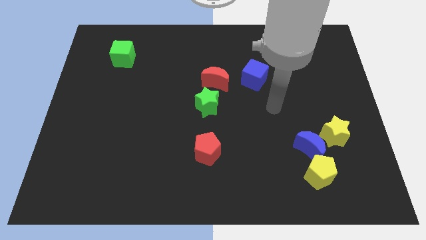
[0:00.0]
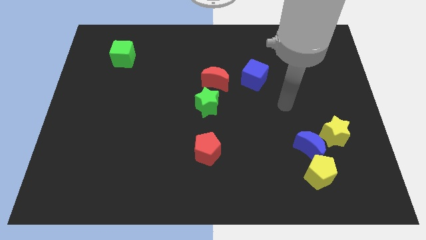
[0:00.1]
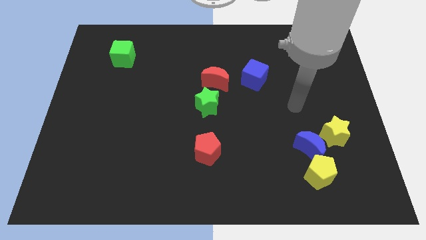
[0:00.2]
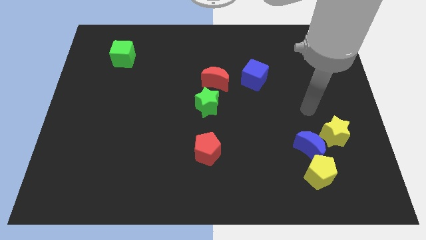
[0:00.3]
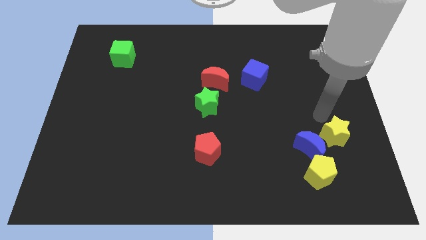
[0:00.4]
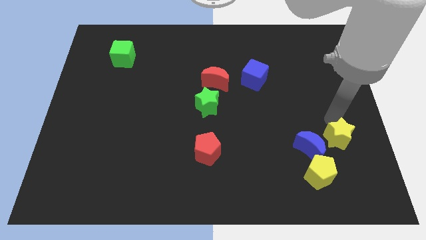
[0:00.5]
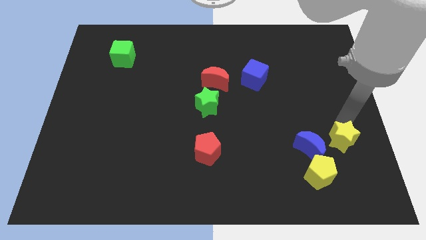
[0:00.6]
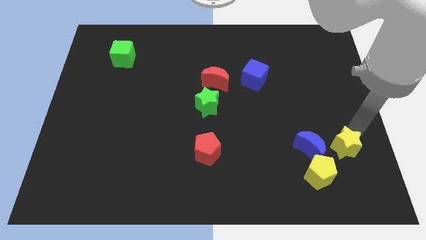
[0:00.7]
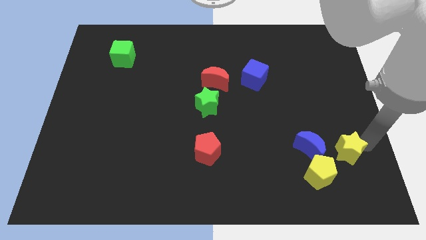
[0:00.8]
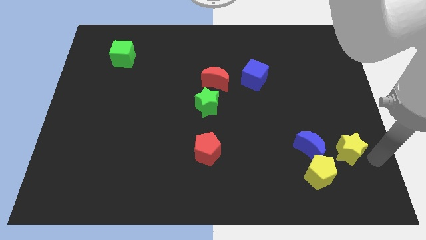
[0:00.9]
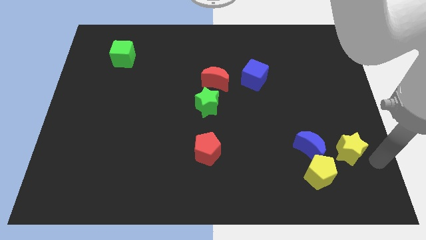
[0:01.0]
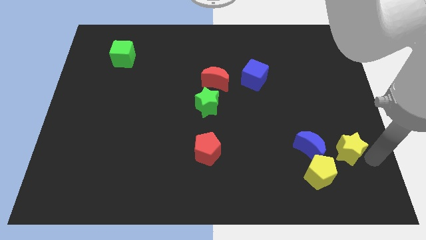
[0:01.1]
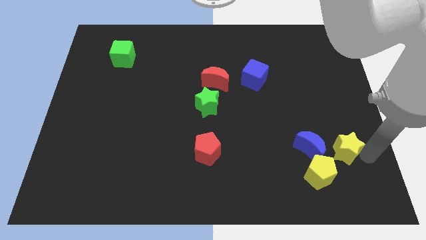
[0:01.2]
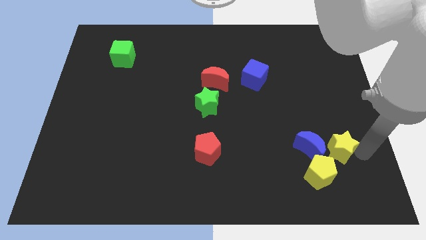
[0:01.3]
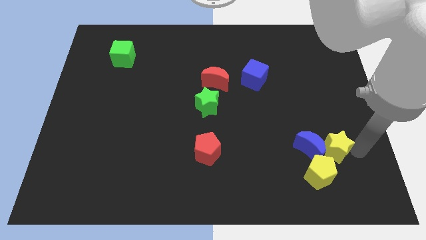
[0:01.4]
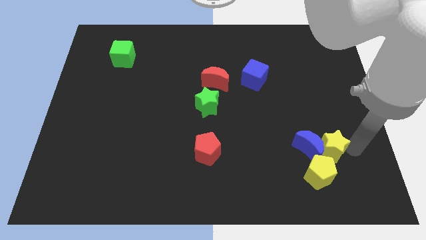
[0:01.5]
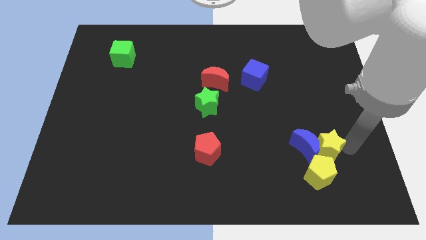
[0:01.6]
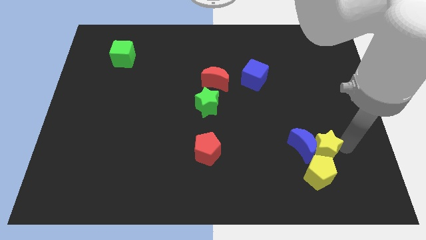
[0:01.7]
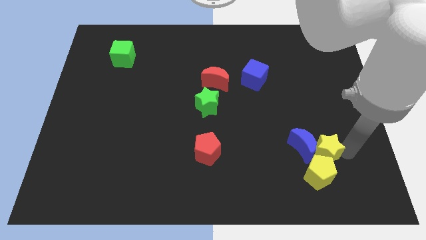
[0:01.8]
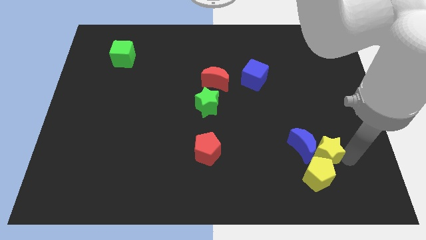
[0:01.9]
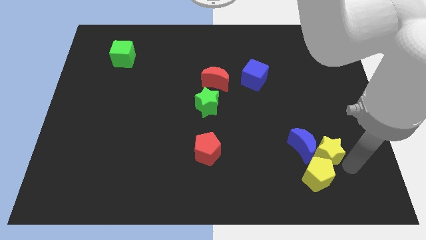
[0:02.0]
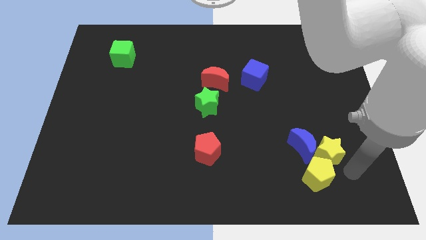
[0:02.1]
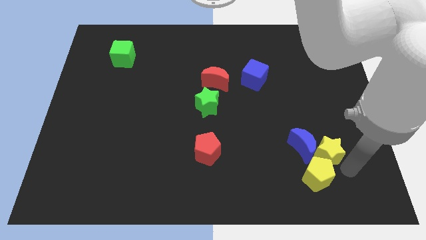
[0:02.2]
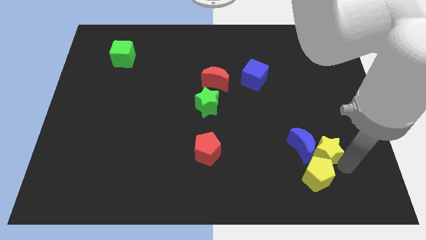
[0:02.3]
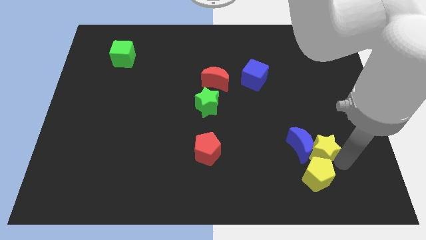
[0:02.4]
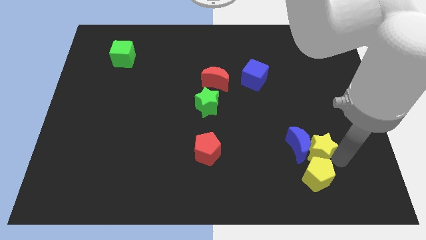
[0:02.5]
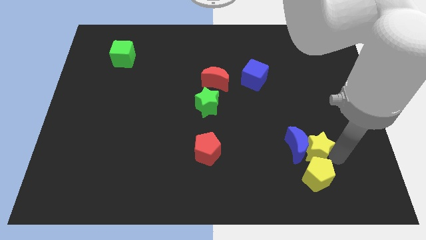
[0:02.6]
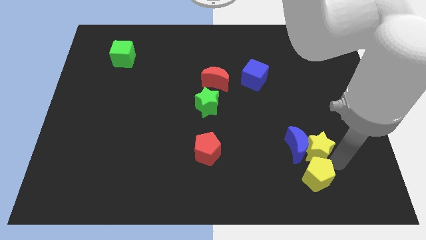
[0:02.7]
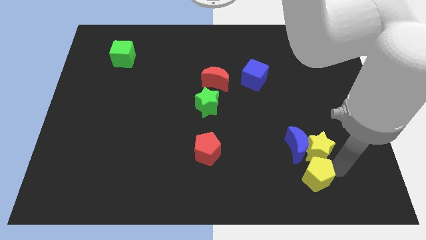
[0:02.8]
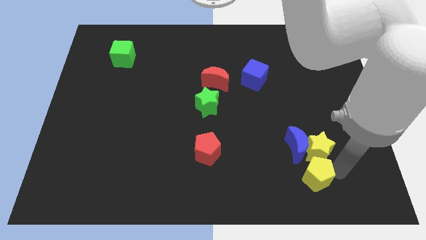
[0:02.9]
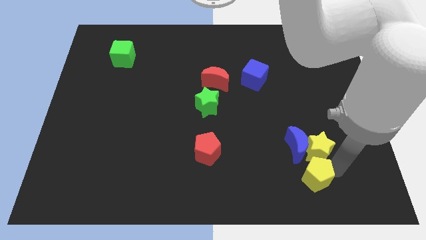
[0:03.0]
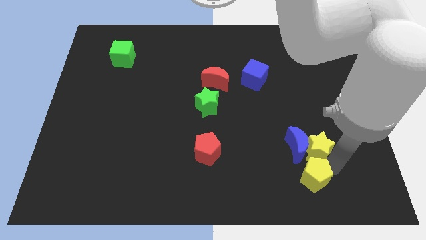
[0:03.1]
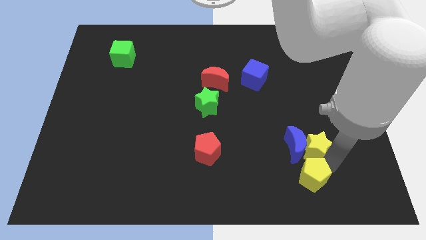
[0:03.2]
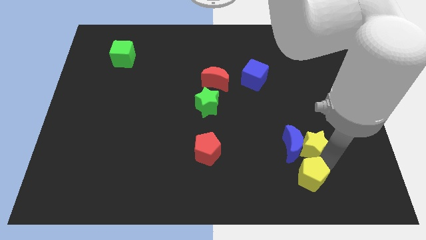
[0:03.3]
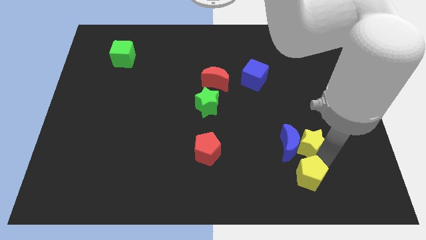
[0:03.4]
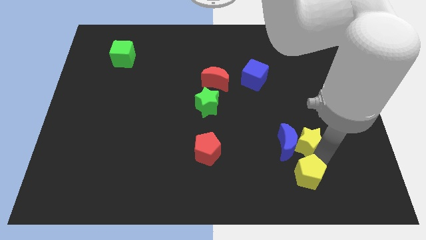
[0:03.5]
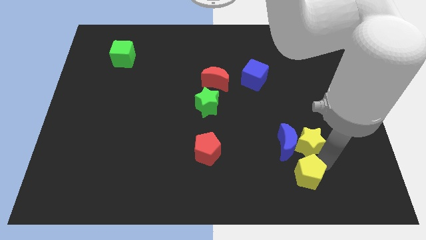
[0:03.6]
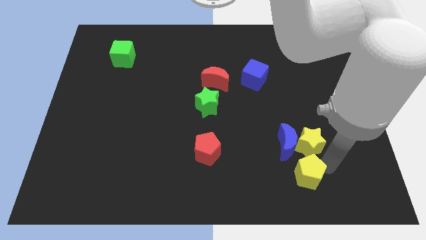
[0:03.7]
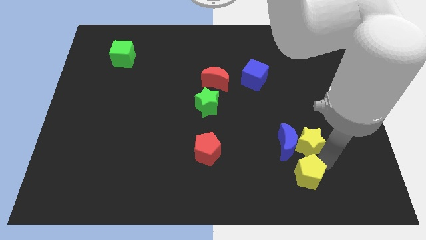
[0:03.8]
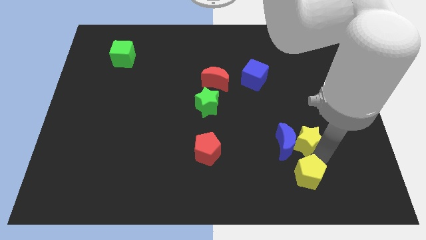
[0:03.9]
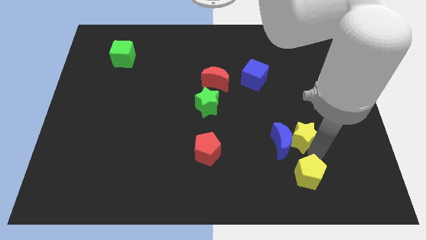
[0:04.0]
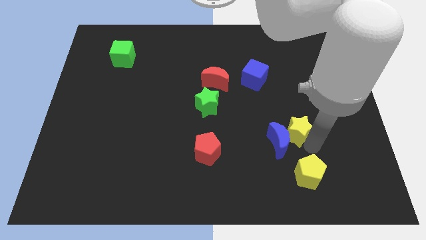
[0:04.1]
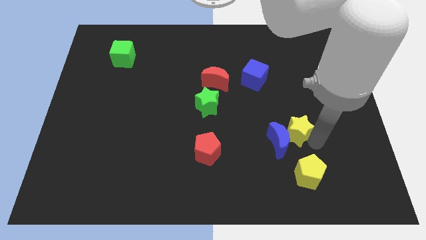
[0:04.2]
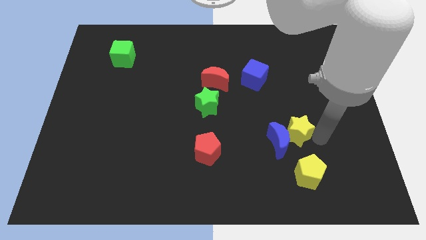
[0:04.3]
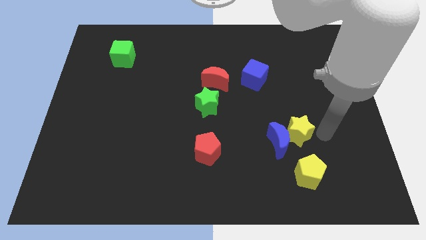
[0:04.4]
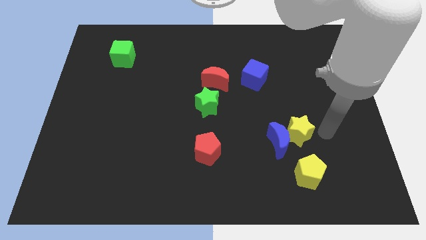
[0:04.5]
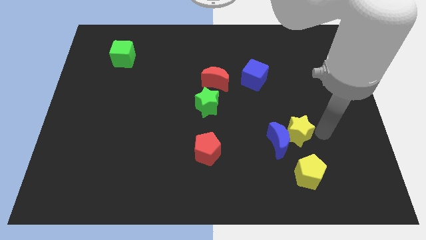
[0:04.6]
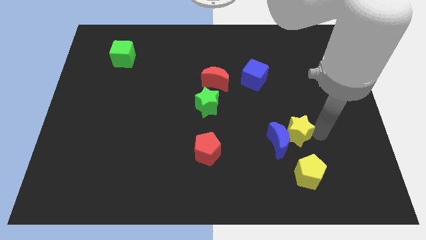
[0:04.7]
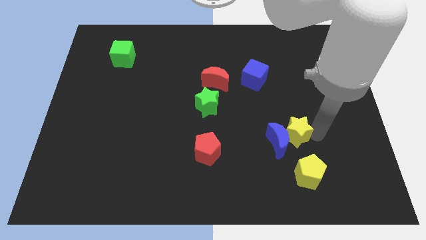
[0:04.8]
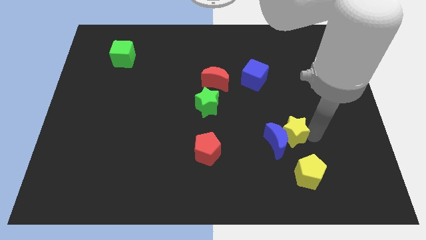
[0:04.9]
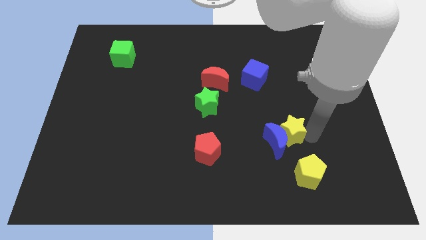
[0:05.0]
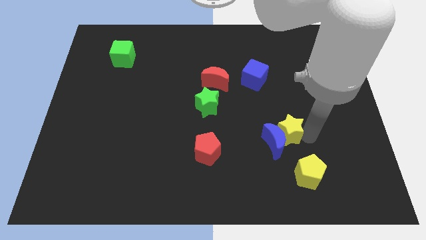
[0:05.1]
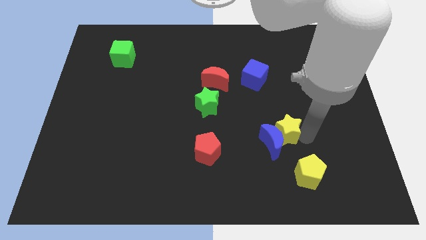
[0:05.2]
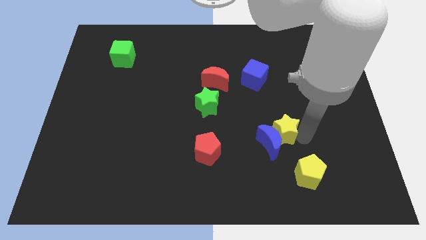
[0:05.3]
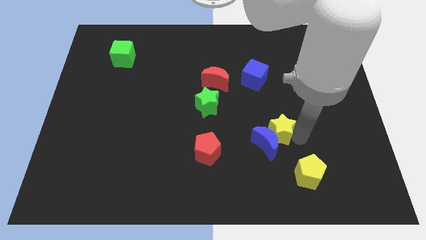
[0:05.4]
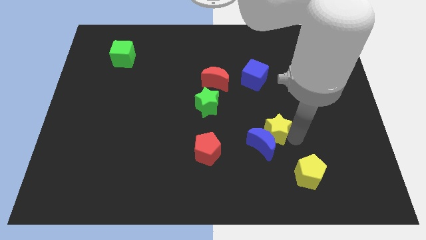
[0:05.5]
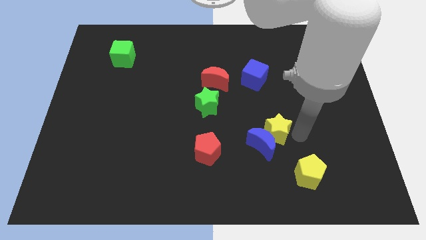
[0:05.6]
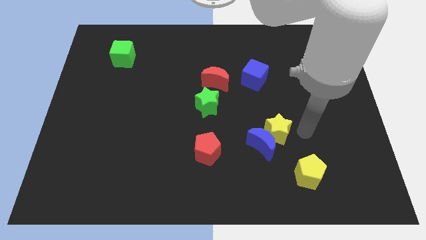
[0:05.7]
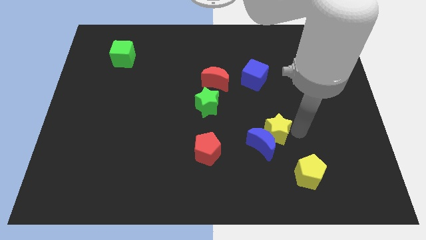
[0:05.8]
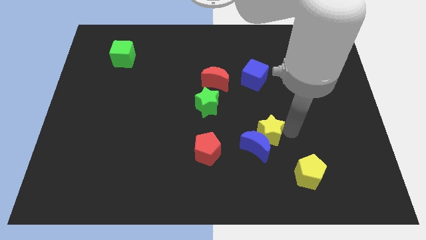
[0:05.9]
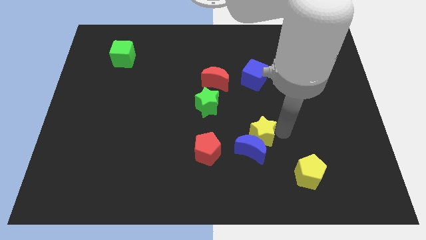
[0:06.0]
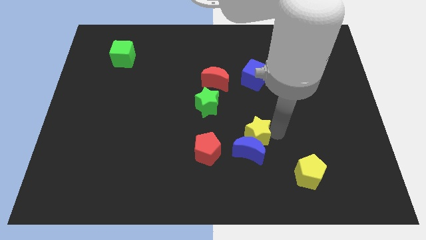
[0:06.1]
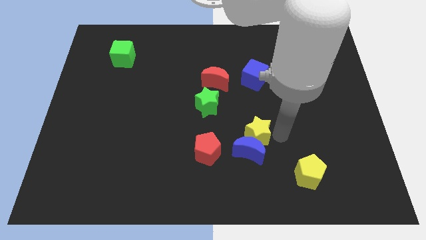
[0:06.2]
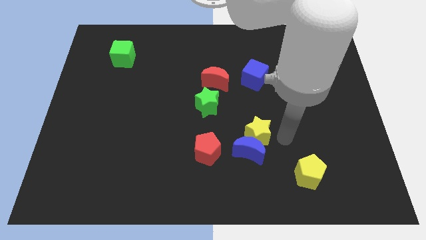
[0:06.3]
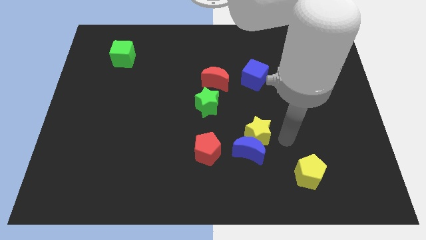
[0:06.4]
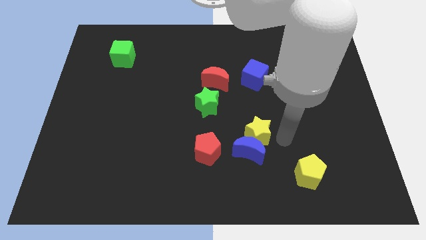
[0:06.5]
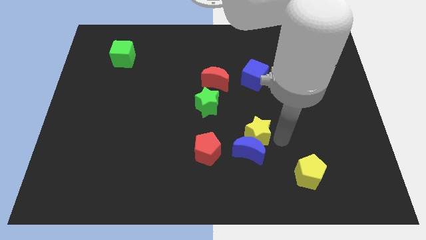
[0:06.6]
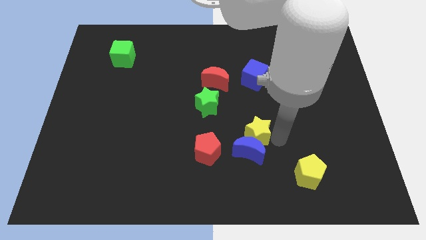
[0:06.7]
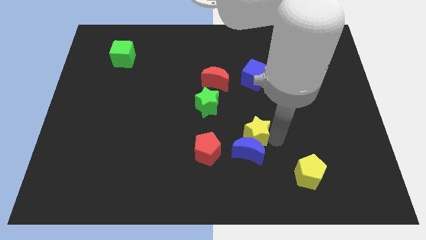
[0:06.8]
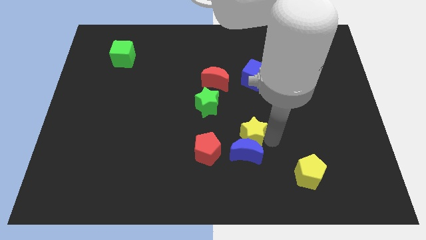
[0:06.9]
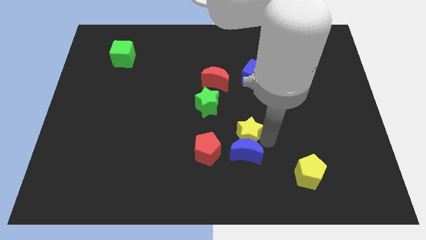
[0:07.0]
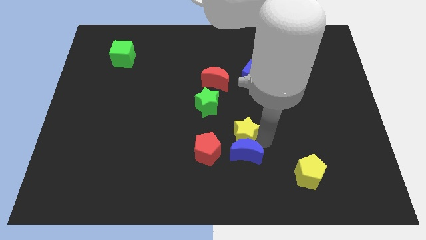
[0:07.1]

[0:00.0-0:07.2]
slide the yellow star left

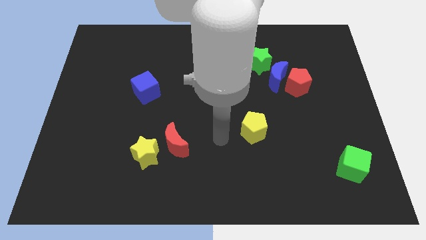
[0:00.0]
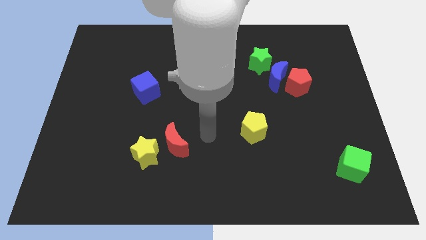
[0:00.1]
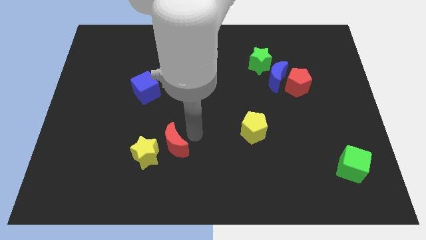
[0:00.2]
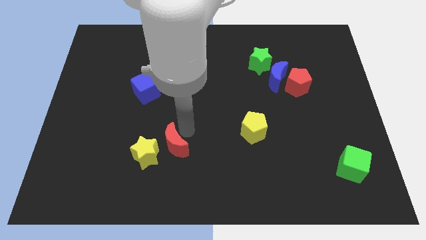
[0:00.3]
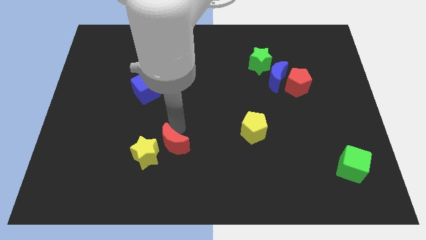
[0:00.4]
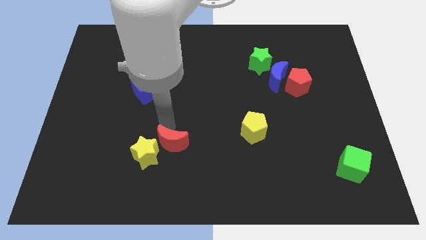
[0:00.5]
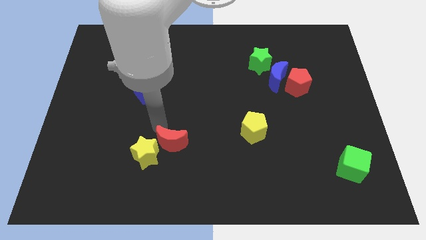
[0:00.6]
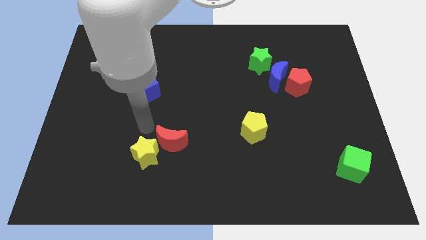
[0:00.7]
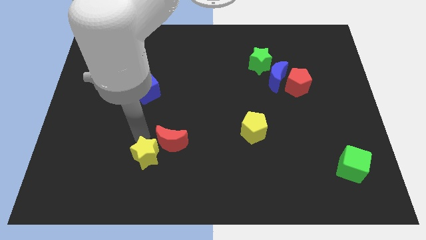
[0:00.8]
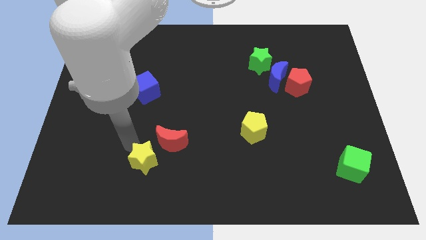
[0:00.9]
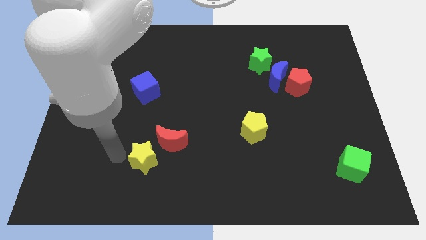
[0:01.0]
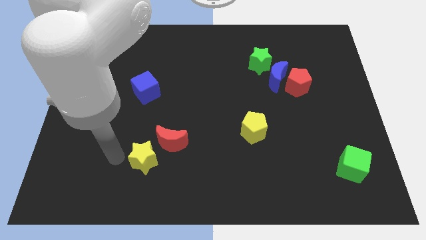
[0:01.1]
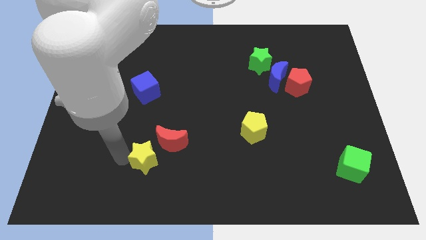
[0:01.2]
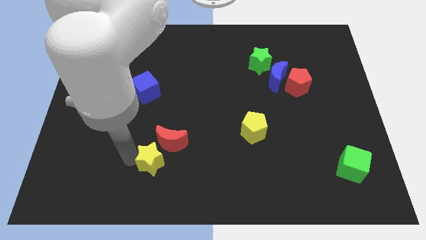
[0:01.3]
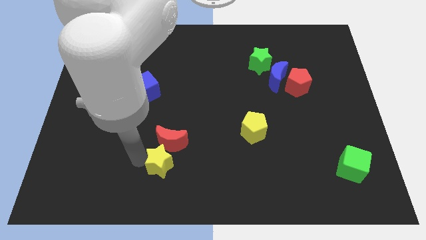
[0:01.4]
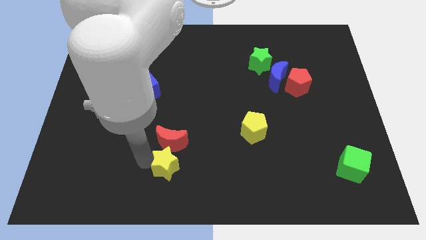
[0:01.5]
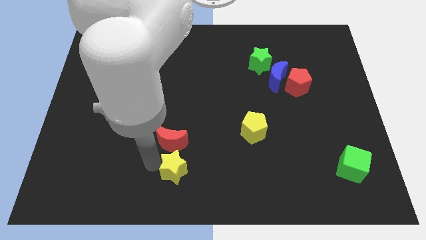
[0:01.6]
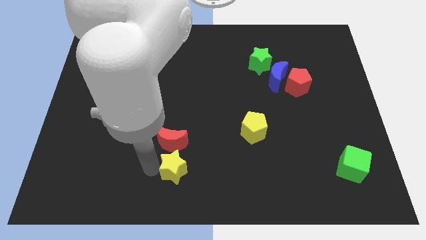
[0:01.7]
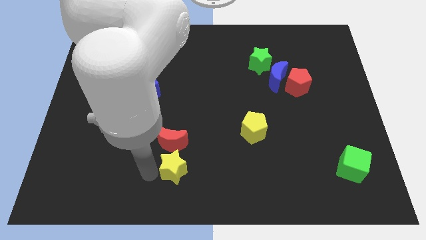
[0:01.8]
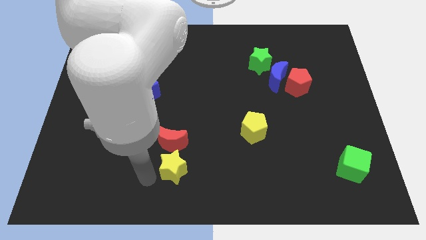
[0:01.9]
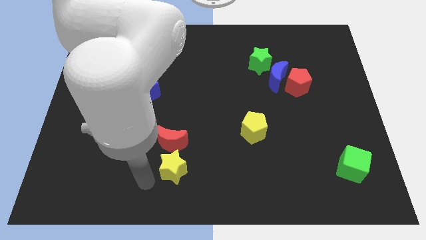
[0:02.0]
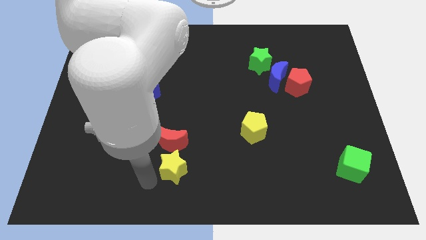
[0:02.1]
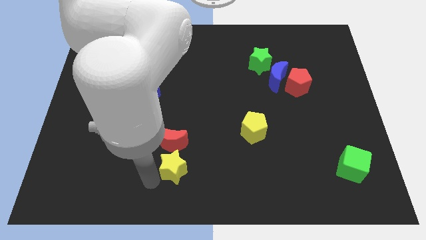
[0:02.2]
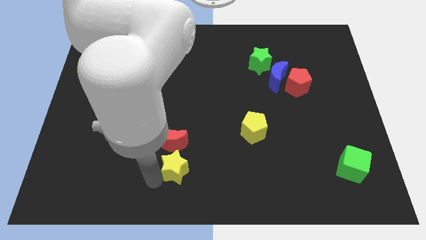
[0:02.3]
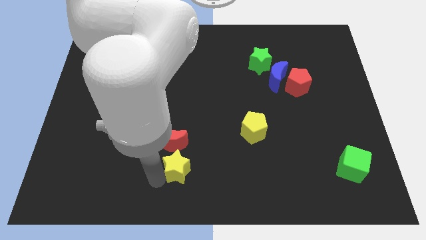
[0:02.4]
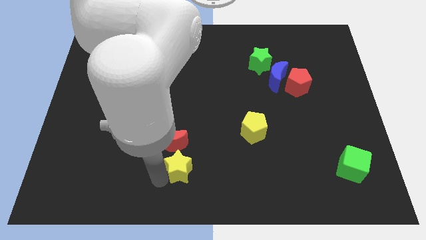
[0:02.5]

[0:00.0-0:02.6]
slide the yellow star a little bit to the right
